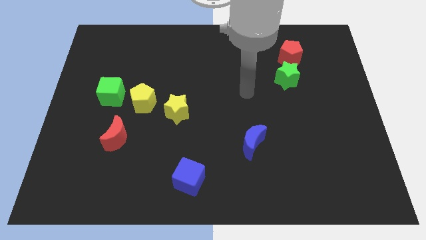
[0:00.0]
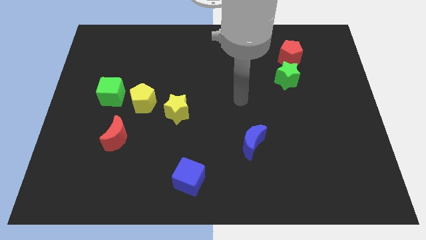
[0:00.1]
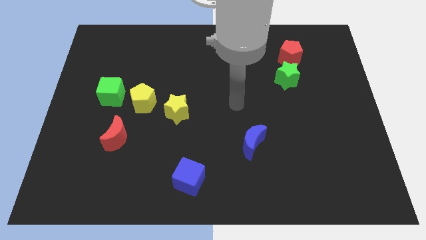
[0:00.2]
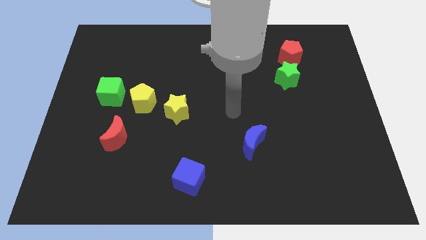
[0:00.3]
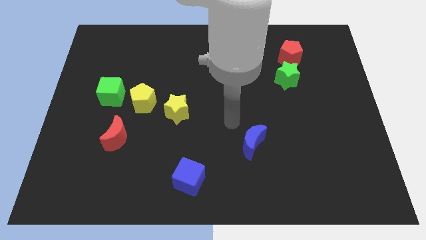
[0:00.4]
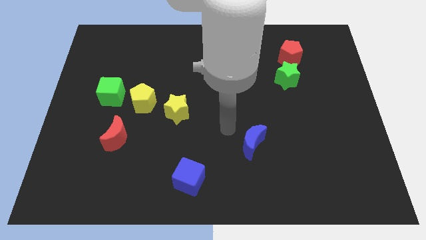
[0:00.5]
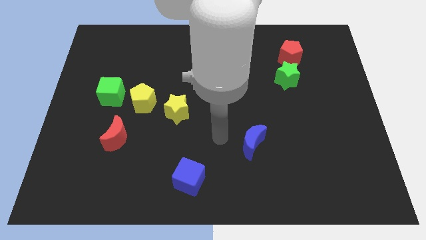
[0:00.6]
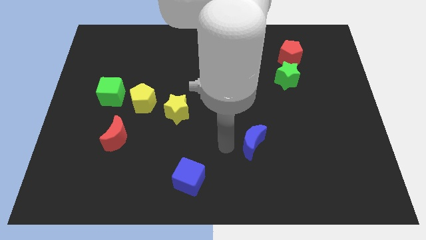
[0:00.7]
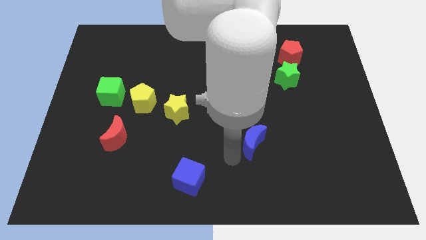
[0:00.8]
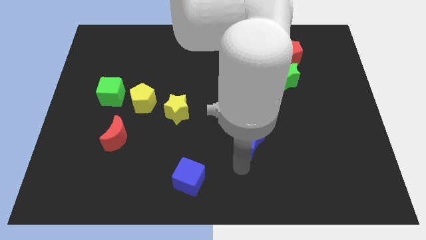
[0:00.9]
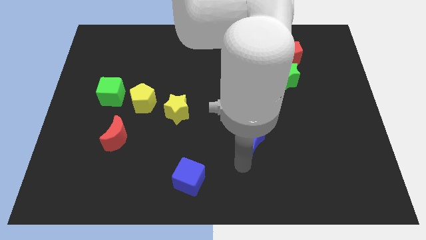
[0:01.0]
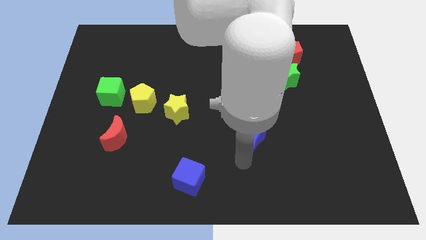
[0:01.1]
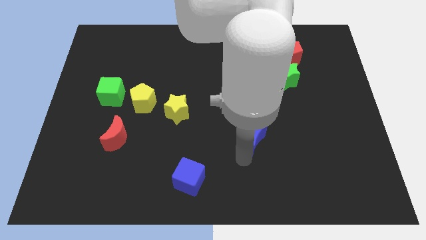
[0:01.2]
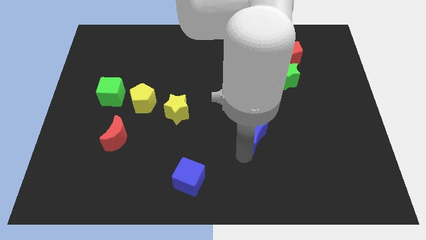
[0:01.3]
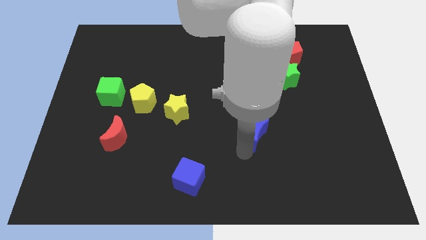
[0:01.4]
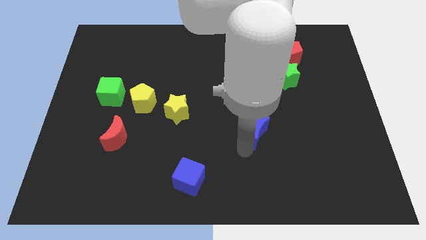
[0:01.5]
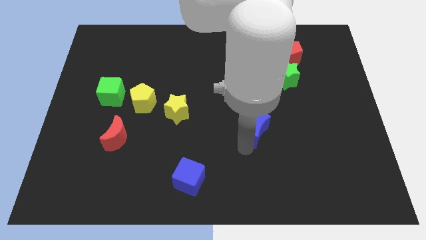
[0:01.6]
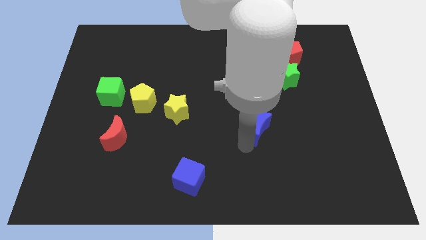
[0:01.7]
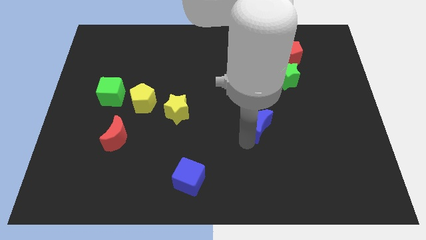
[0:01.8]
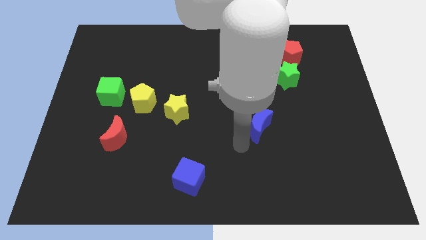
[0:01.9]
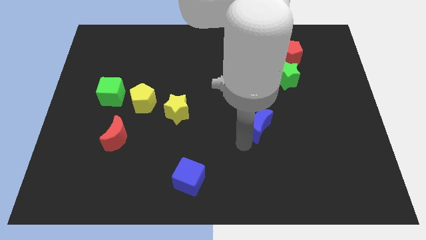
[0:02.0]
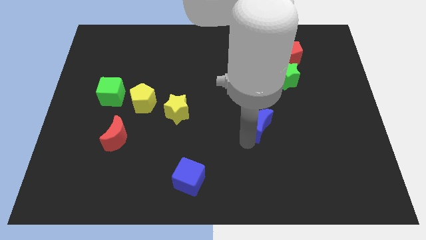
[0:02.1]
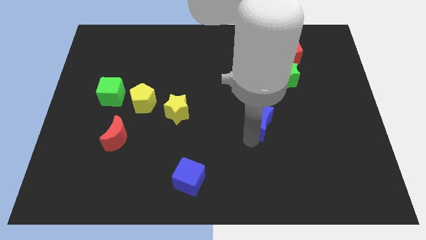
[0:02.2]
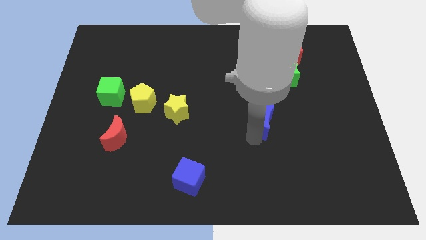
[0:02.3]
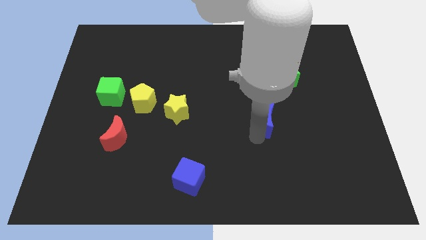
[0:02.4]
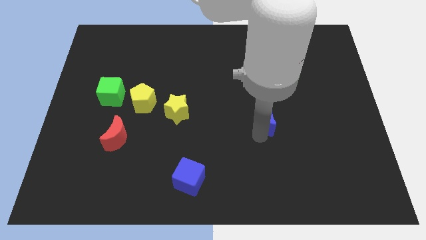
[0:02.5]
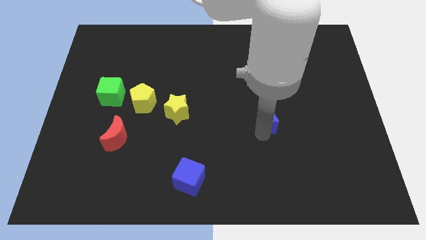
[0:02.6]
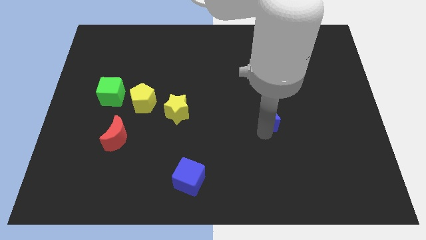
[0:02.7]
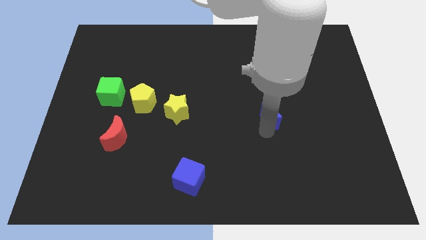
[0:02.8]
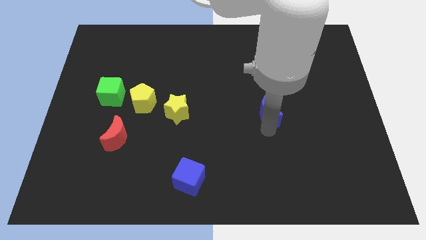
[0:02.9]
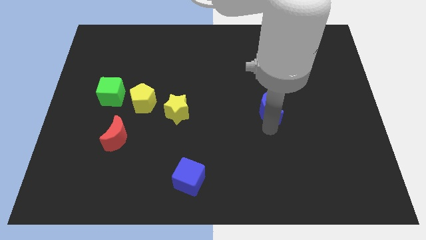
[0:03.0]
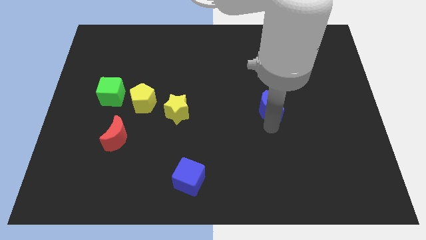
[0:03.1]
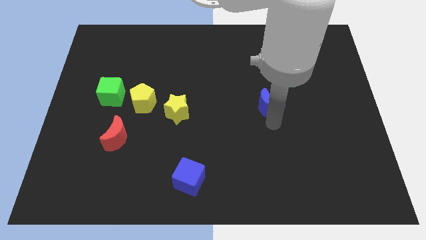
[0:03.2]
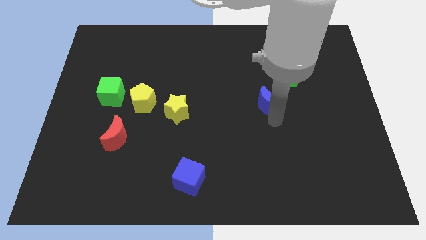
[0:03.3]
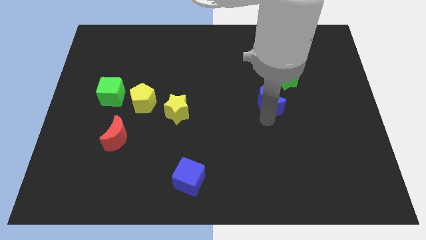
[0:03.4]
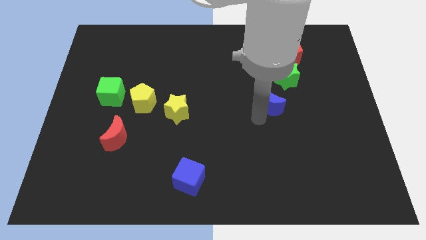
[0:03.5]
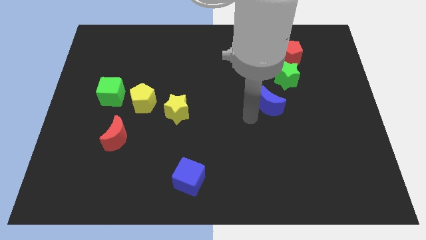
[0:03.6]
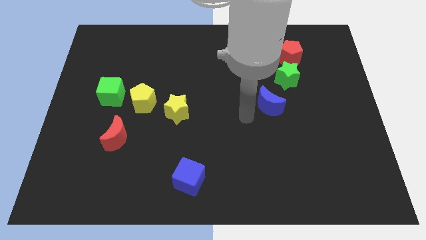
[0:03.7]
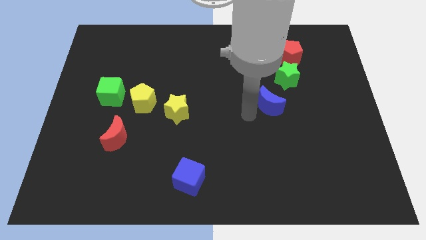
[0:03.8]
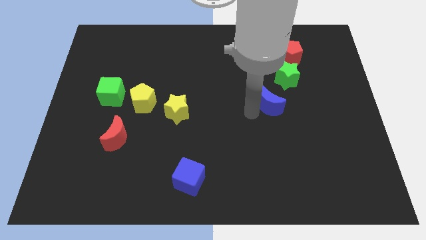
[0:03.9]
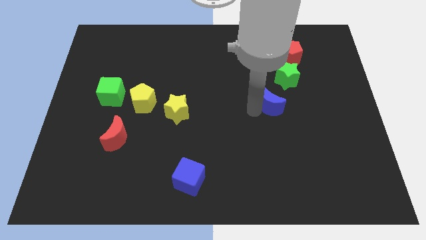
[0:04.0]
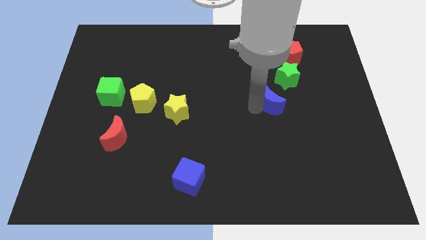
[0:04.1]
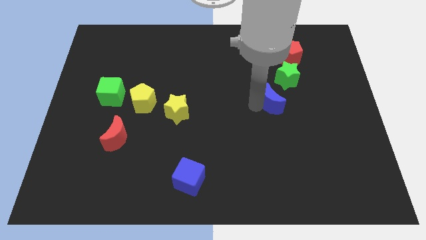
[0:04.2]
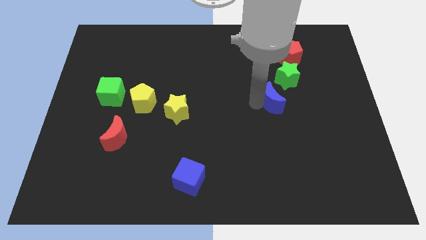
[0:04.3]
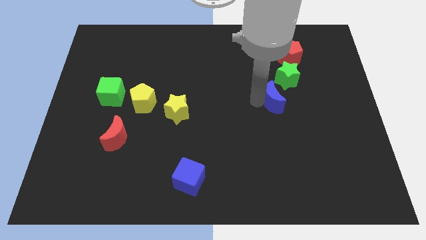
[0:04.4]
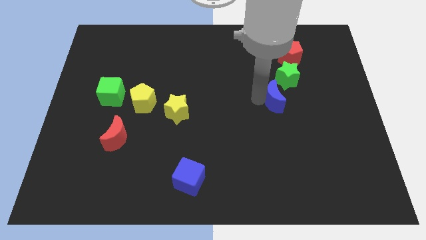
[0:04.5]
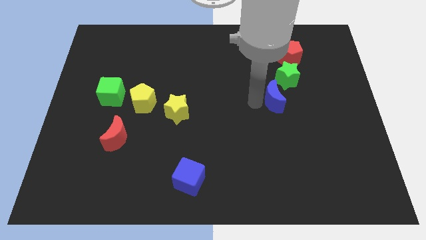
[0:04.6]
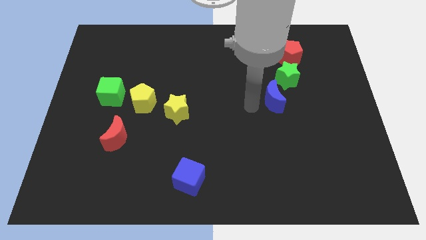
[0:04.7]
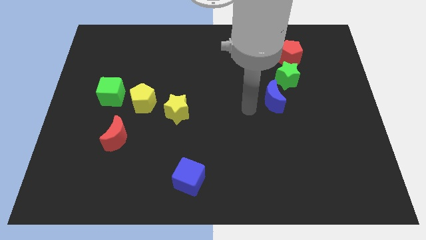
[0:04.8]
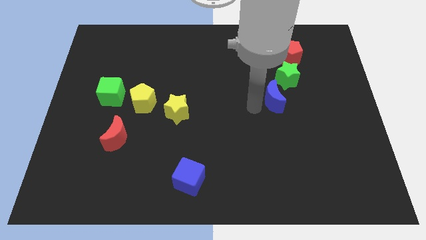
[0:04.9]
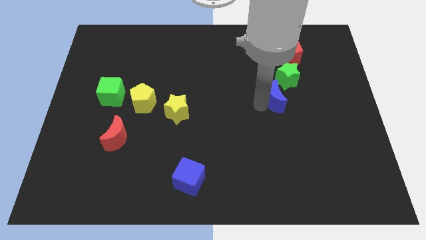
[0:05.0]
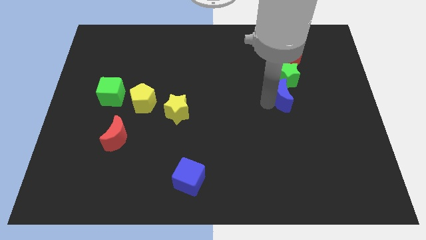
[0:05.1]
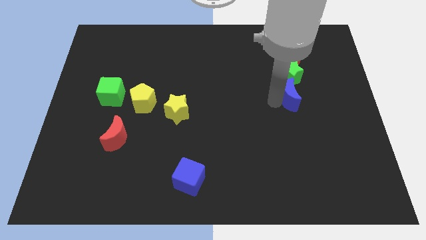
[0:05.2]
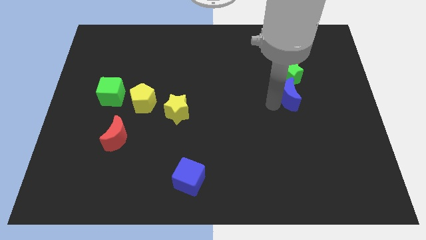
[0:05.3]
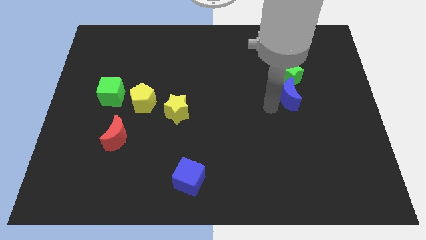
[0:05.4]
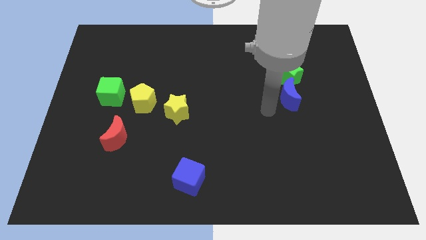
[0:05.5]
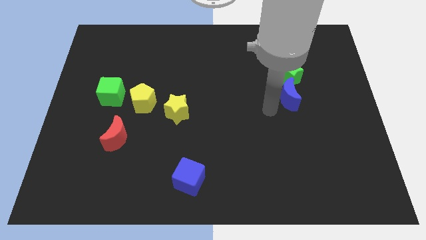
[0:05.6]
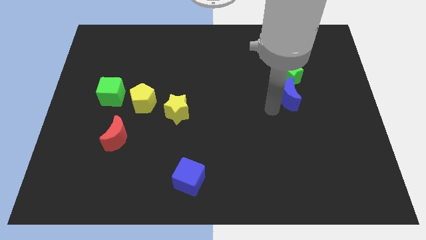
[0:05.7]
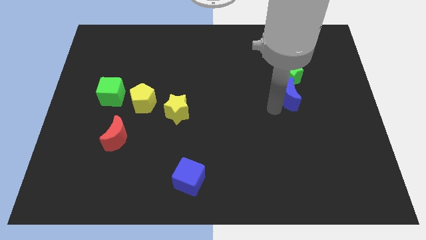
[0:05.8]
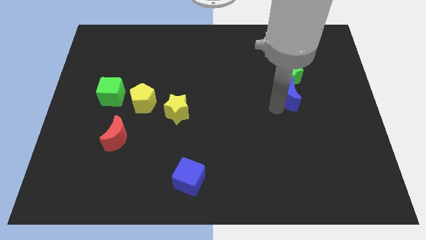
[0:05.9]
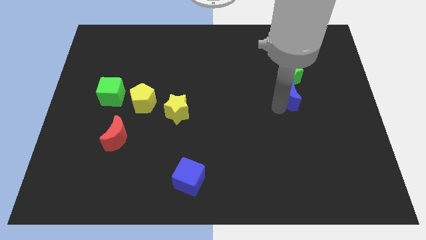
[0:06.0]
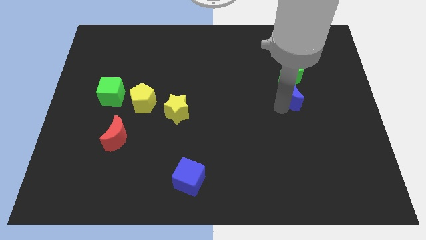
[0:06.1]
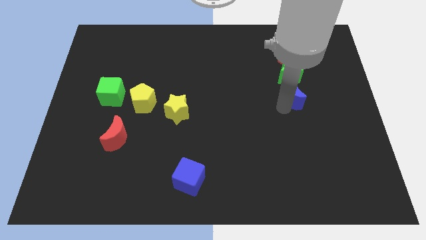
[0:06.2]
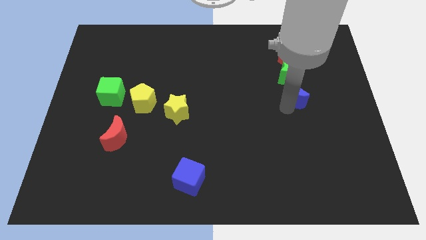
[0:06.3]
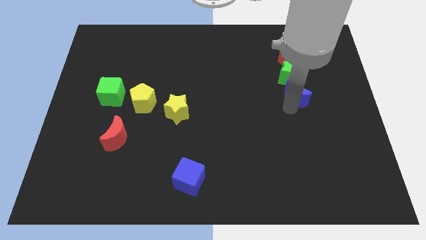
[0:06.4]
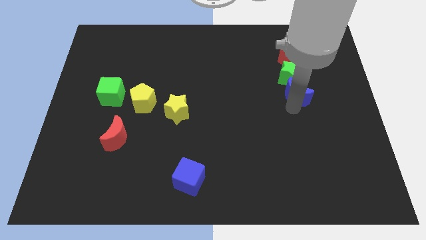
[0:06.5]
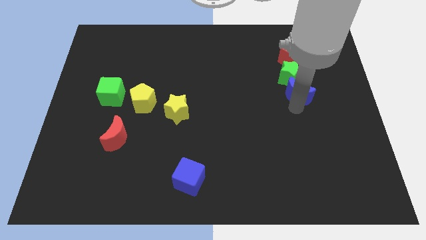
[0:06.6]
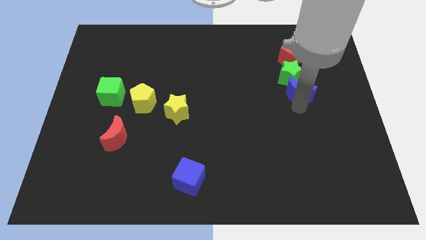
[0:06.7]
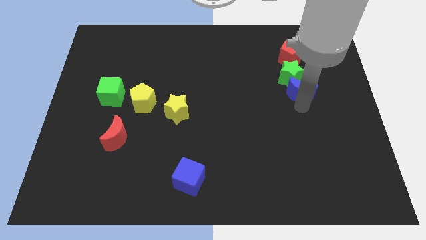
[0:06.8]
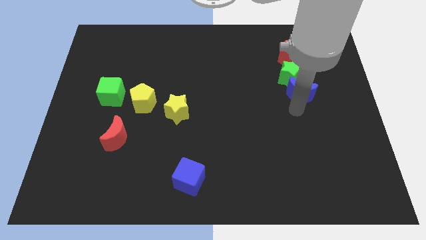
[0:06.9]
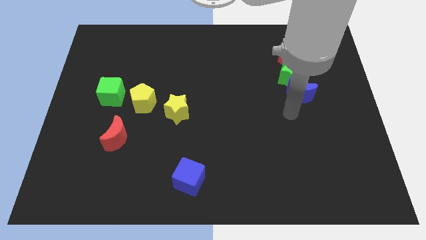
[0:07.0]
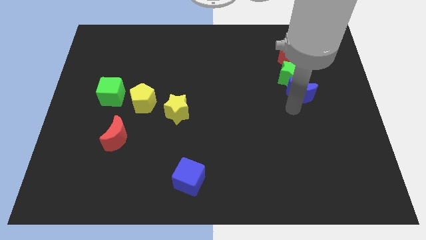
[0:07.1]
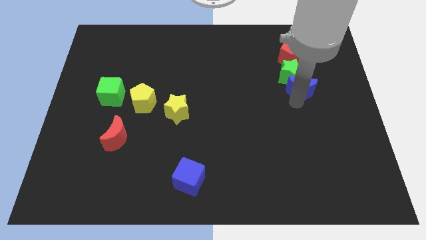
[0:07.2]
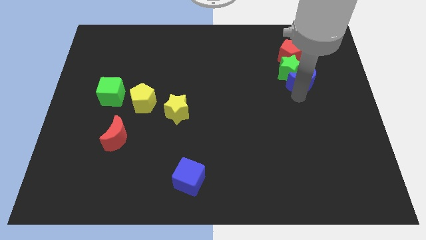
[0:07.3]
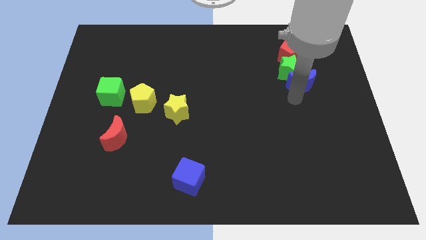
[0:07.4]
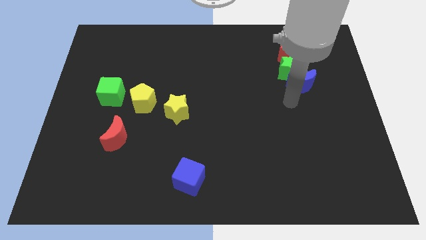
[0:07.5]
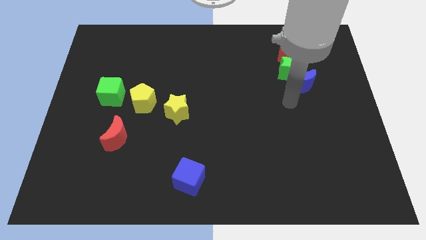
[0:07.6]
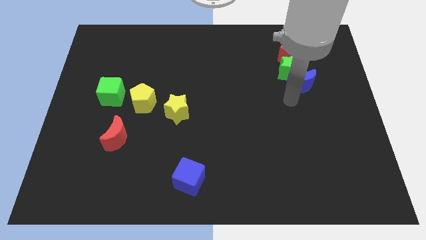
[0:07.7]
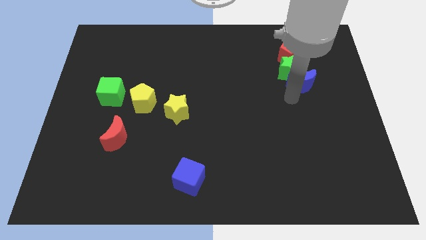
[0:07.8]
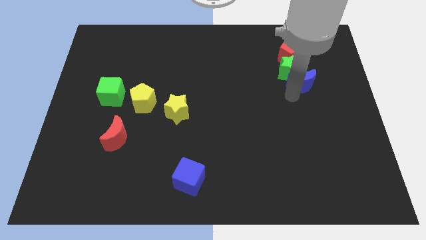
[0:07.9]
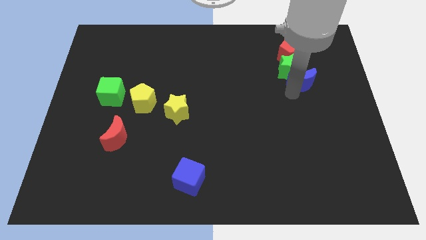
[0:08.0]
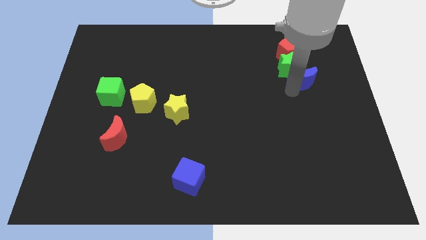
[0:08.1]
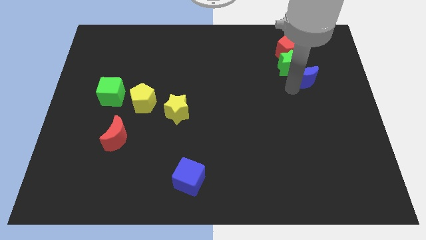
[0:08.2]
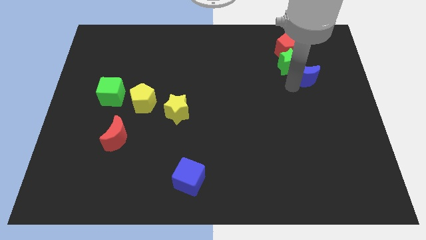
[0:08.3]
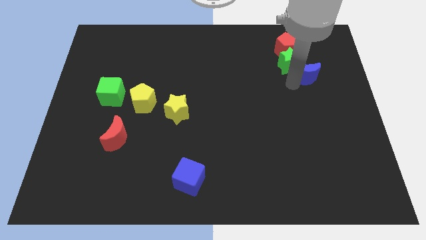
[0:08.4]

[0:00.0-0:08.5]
push the blue moon to the bottom right of the red pentagon
